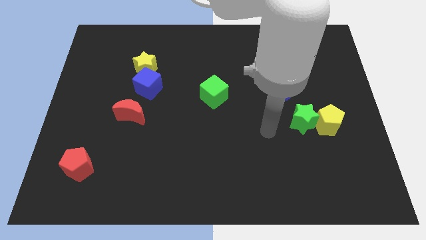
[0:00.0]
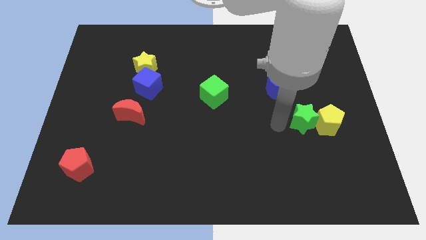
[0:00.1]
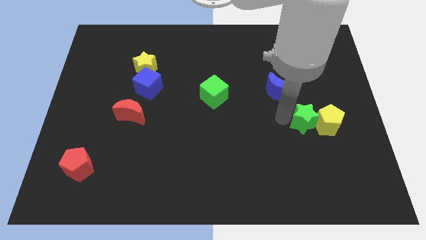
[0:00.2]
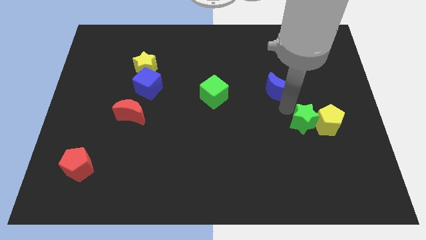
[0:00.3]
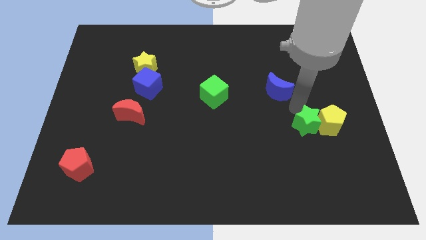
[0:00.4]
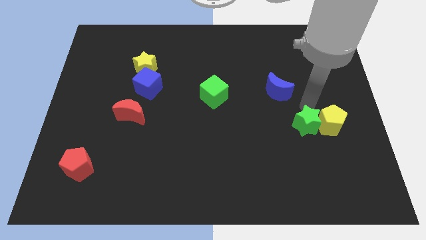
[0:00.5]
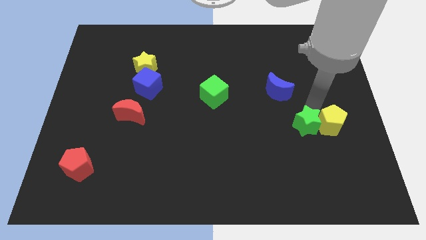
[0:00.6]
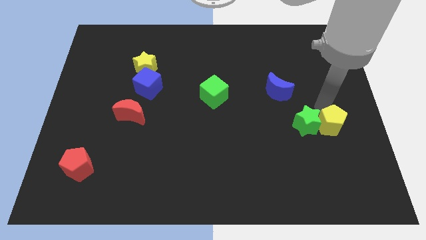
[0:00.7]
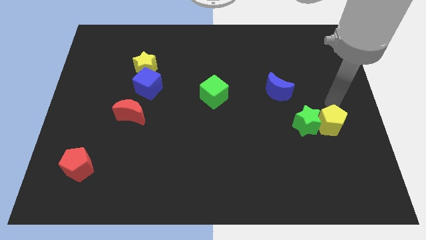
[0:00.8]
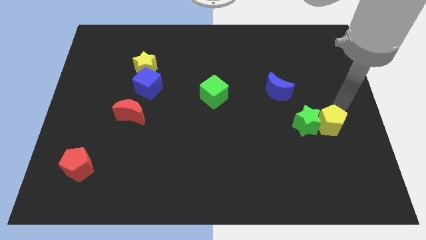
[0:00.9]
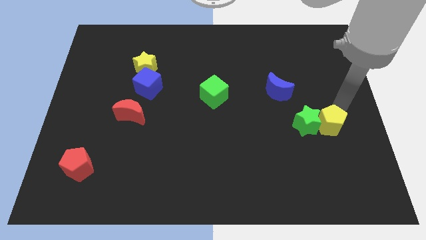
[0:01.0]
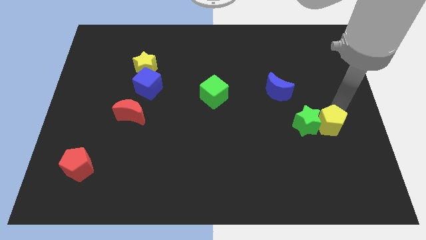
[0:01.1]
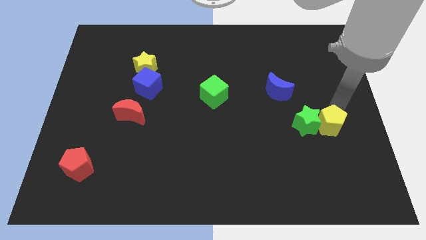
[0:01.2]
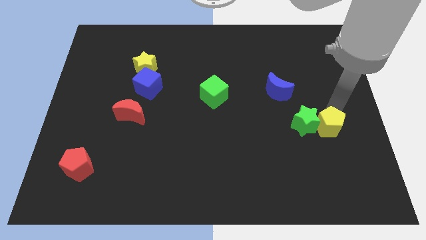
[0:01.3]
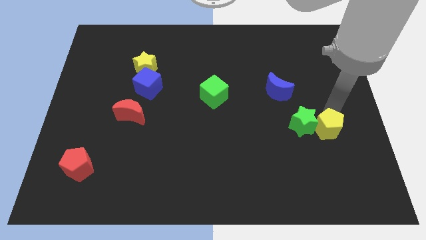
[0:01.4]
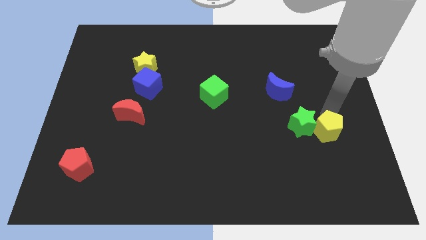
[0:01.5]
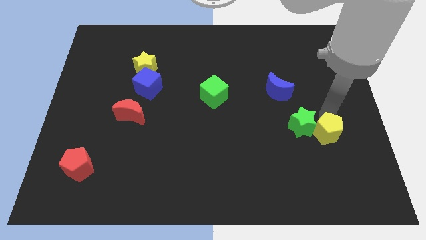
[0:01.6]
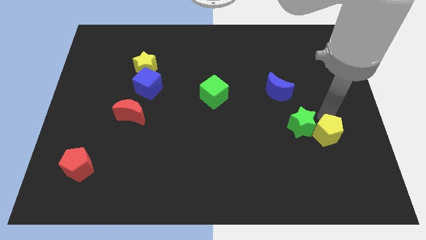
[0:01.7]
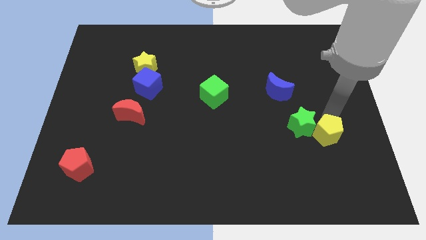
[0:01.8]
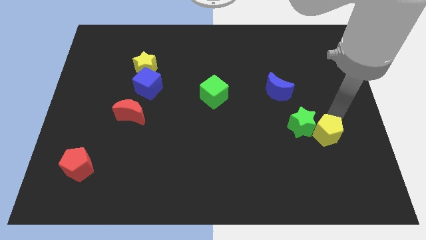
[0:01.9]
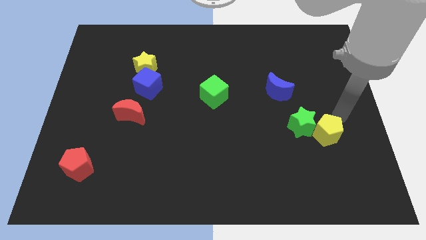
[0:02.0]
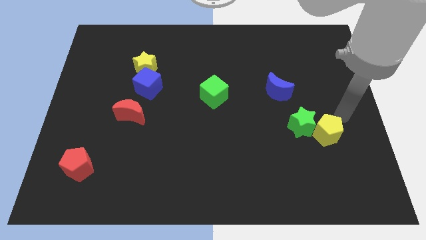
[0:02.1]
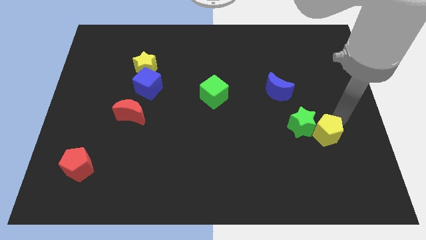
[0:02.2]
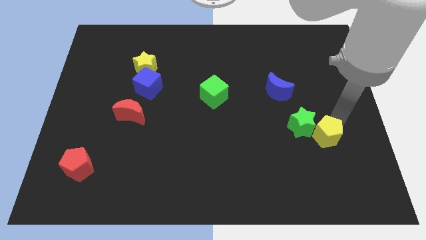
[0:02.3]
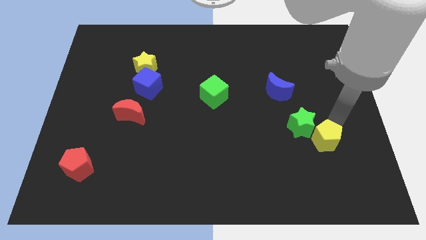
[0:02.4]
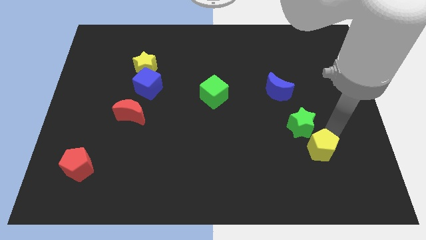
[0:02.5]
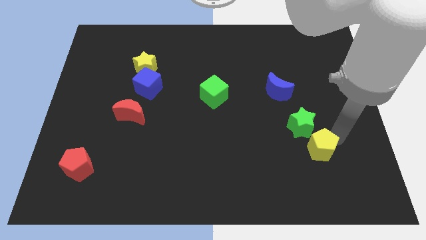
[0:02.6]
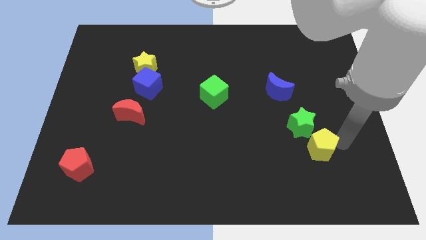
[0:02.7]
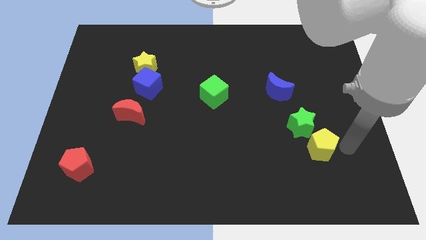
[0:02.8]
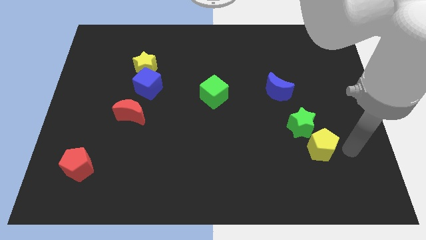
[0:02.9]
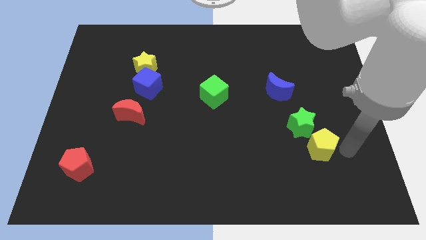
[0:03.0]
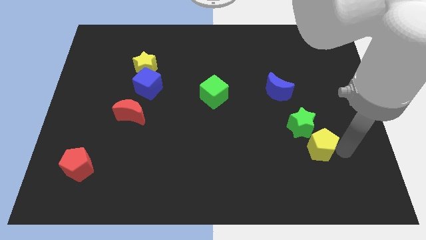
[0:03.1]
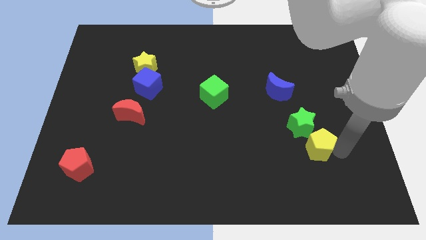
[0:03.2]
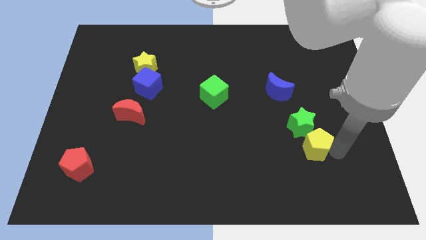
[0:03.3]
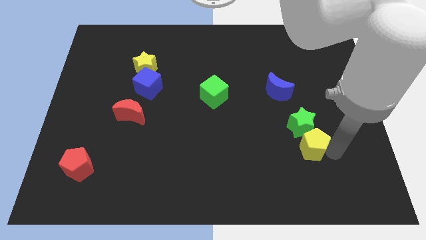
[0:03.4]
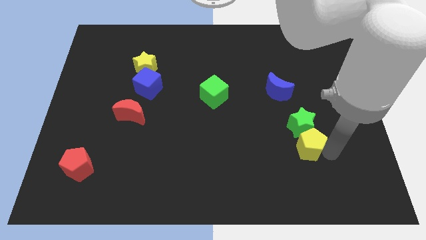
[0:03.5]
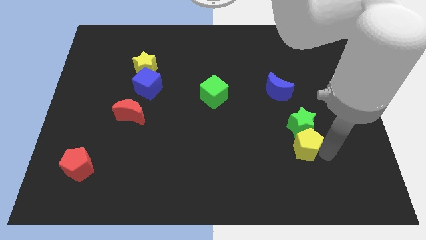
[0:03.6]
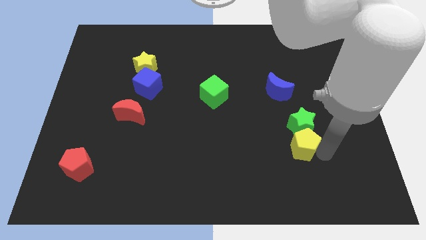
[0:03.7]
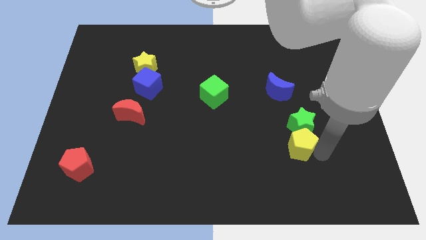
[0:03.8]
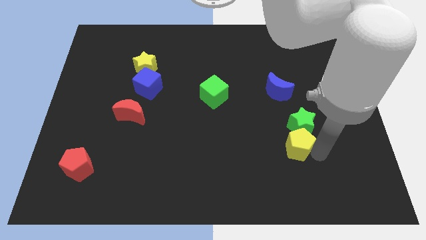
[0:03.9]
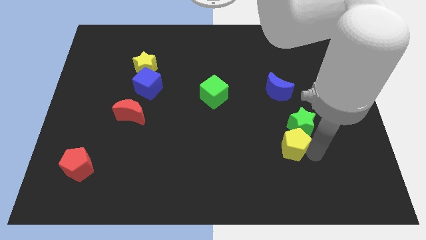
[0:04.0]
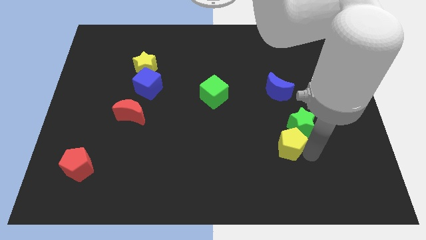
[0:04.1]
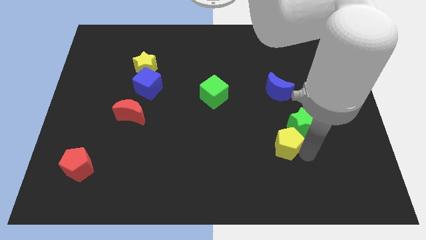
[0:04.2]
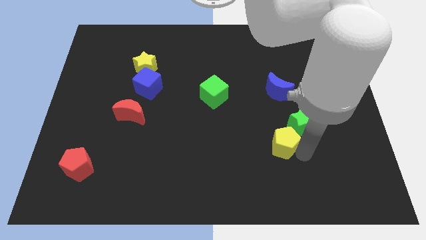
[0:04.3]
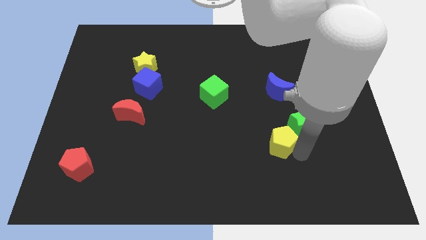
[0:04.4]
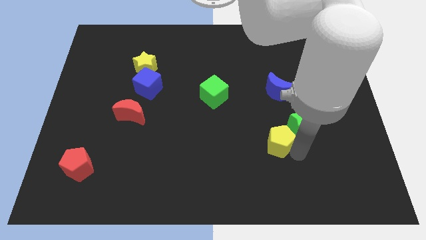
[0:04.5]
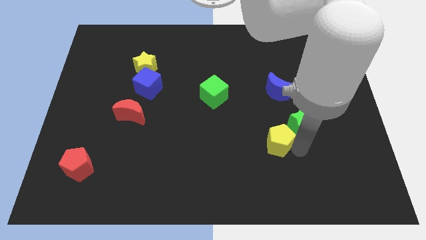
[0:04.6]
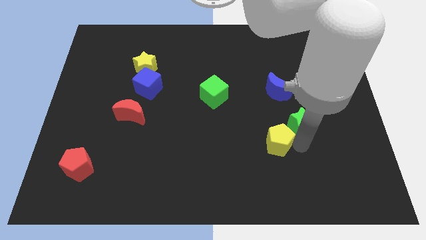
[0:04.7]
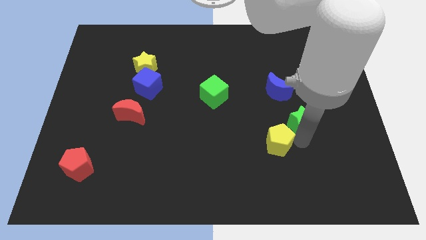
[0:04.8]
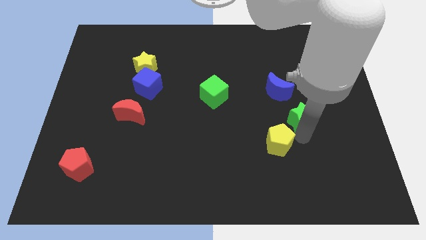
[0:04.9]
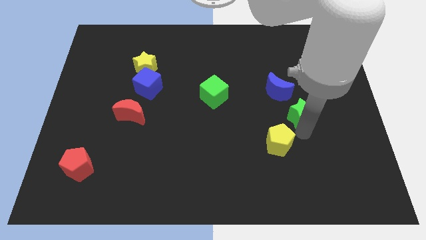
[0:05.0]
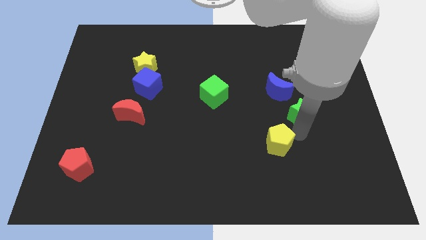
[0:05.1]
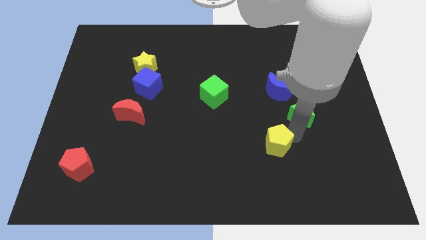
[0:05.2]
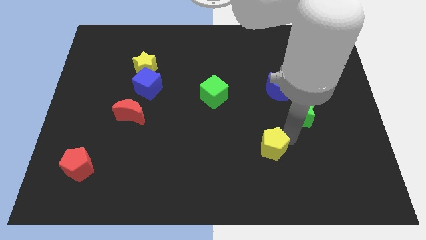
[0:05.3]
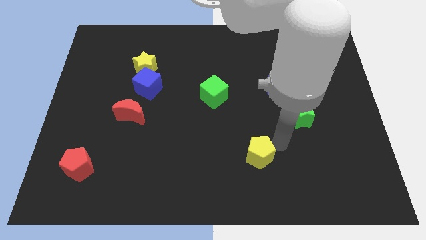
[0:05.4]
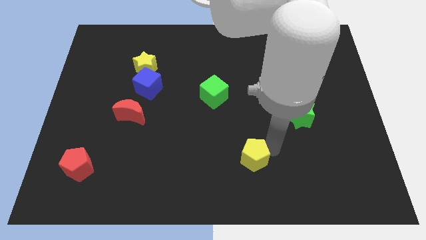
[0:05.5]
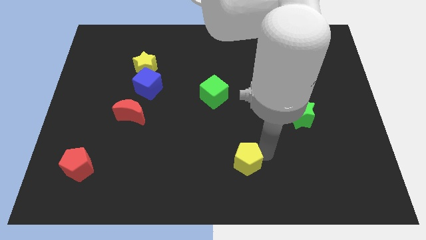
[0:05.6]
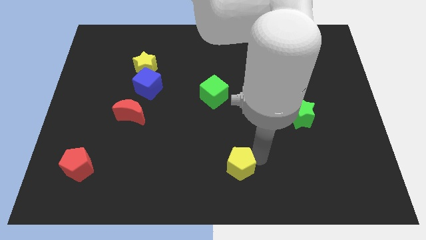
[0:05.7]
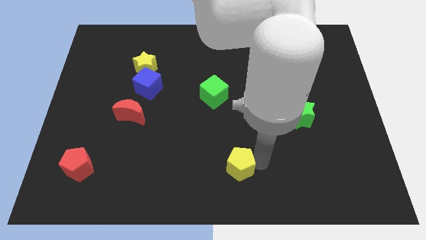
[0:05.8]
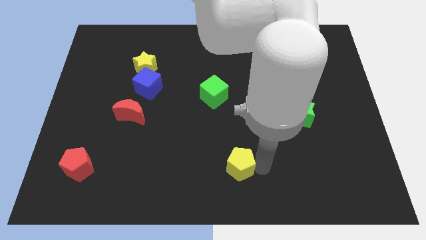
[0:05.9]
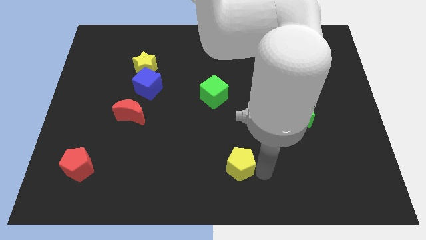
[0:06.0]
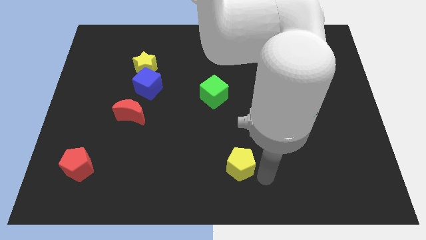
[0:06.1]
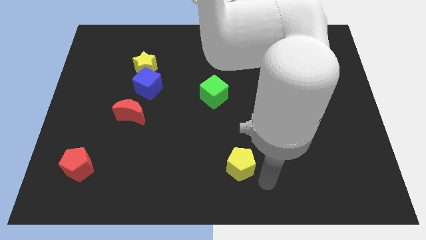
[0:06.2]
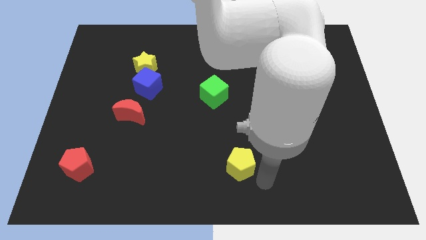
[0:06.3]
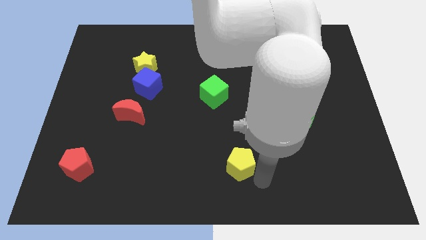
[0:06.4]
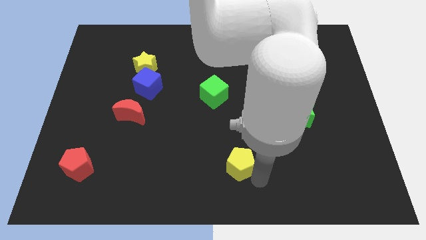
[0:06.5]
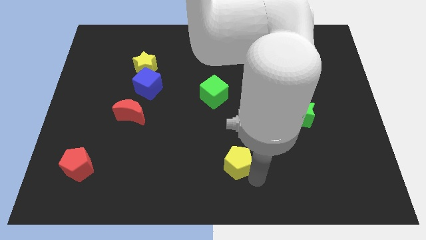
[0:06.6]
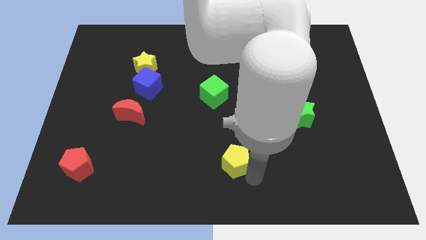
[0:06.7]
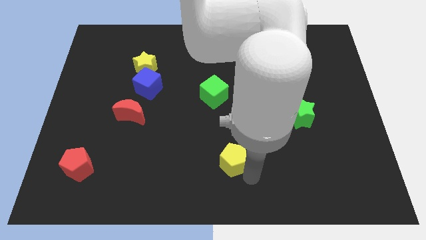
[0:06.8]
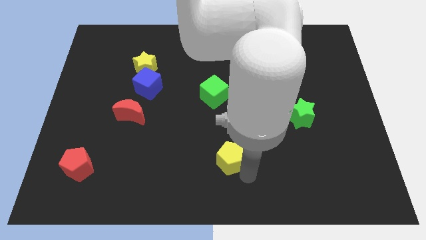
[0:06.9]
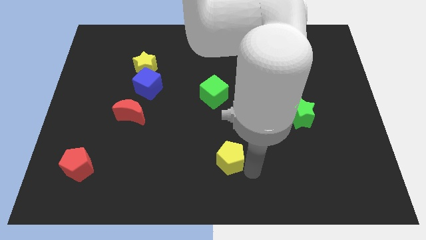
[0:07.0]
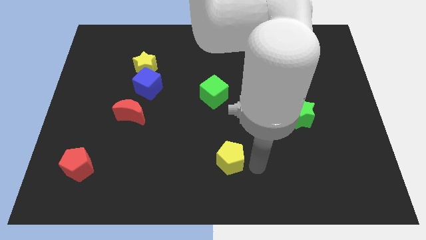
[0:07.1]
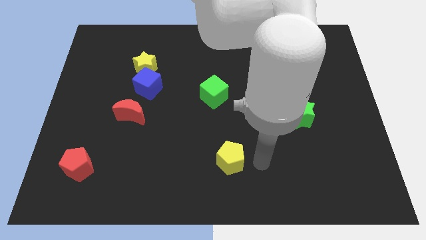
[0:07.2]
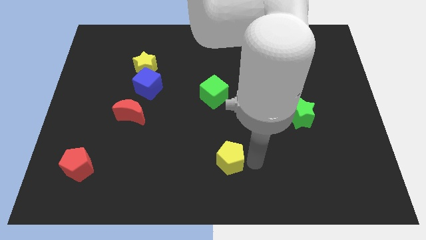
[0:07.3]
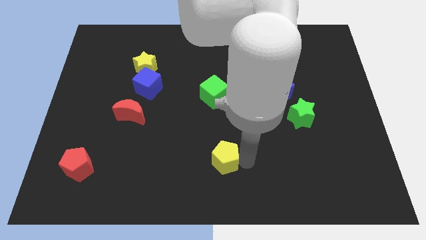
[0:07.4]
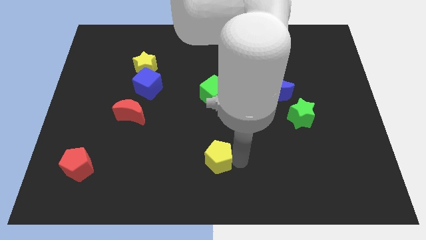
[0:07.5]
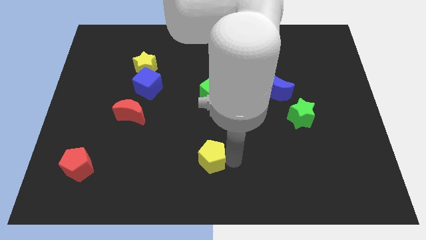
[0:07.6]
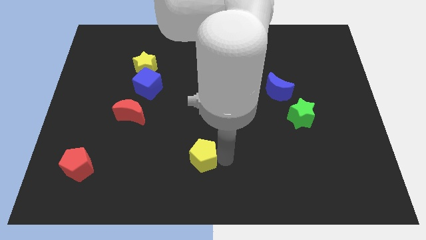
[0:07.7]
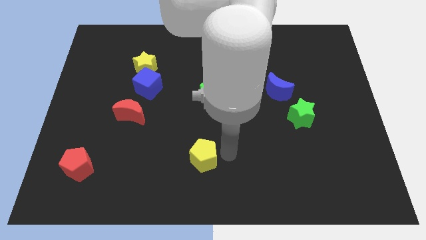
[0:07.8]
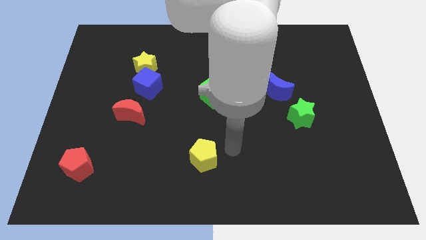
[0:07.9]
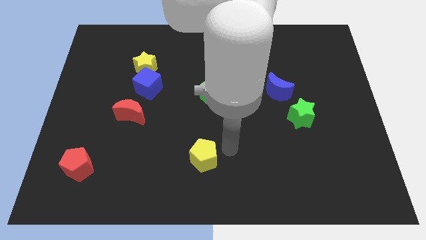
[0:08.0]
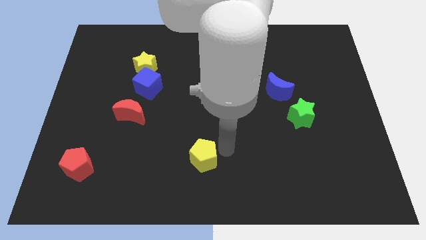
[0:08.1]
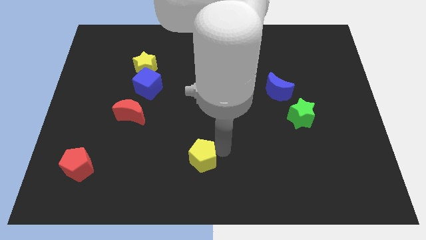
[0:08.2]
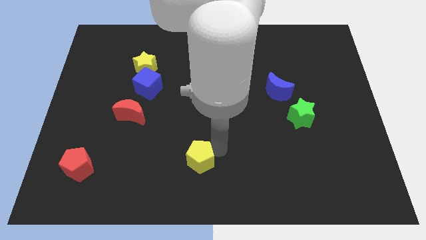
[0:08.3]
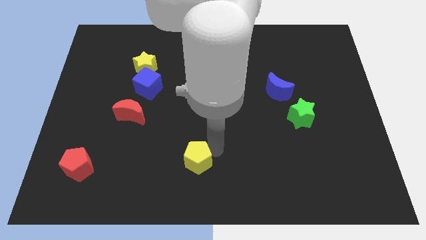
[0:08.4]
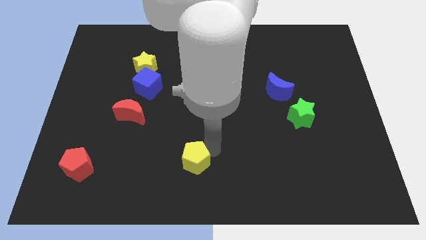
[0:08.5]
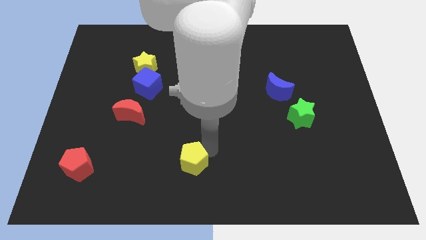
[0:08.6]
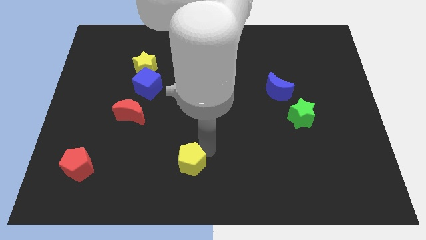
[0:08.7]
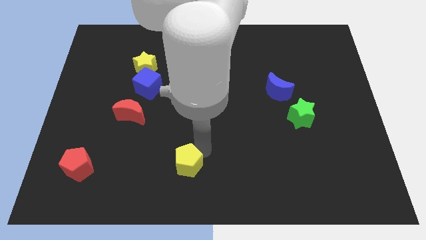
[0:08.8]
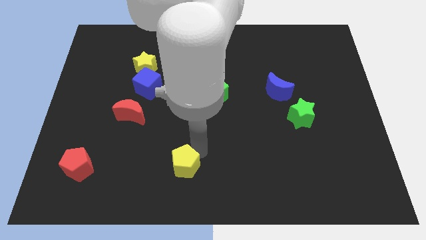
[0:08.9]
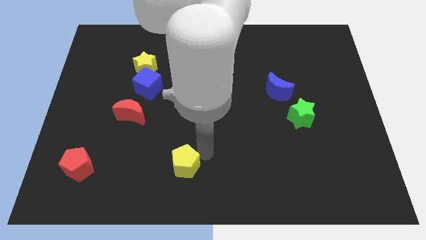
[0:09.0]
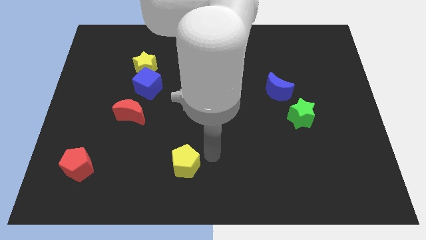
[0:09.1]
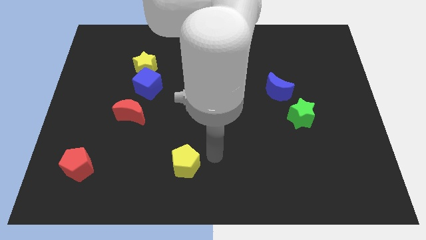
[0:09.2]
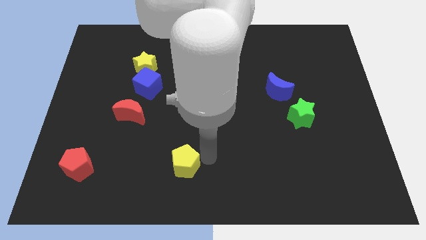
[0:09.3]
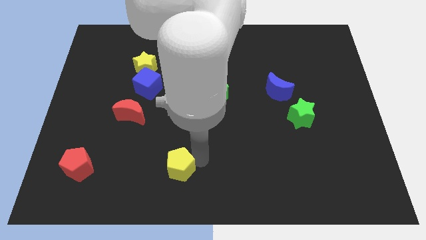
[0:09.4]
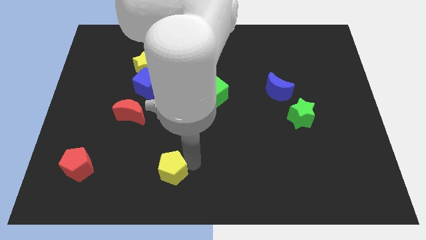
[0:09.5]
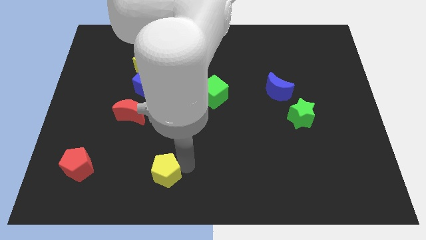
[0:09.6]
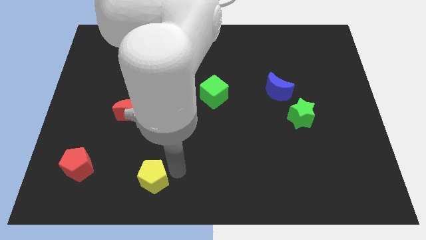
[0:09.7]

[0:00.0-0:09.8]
put the yellow pentagon just right of the red pentagon
